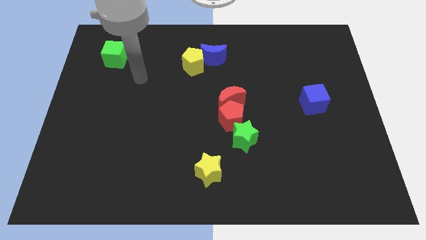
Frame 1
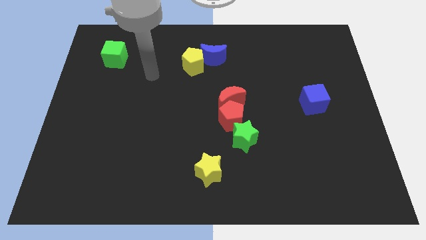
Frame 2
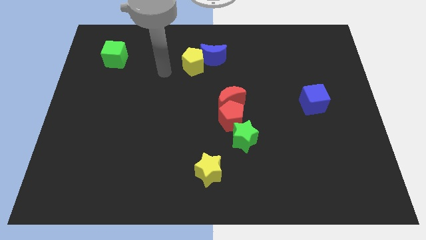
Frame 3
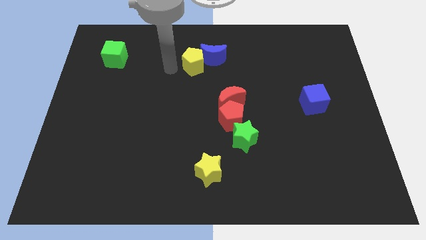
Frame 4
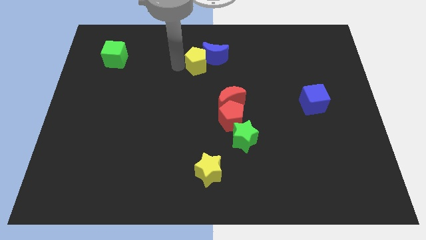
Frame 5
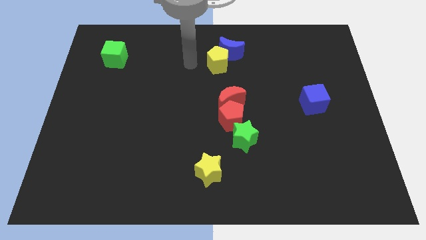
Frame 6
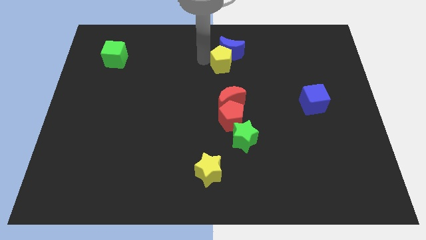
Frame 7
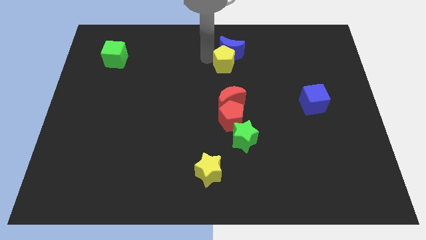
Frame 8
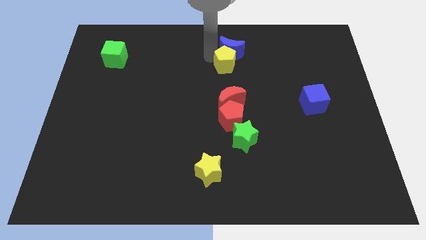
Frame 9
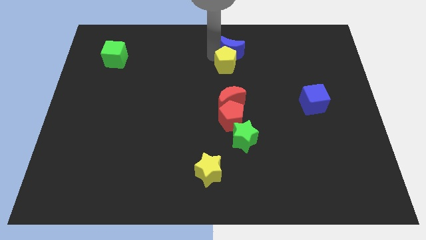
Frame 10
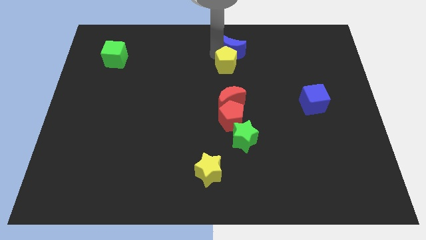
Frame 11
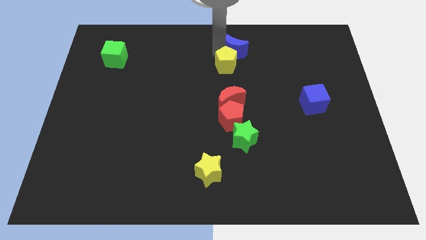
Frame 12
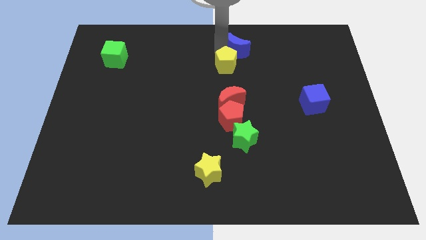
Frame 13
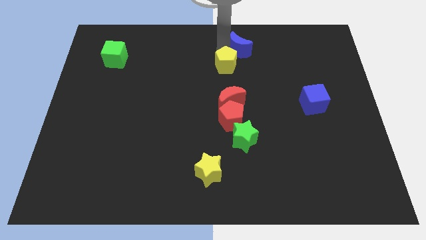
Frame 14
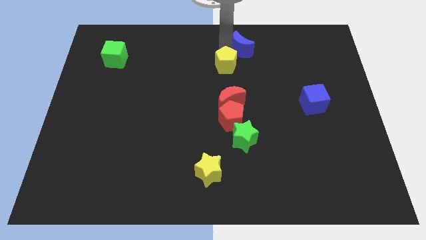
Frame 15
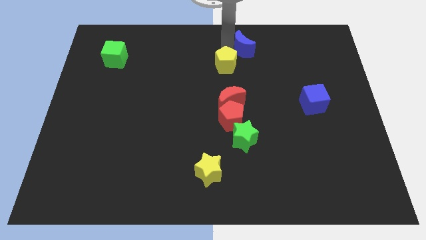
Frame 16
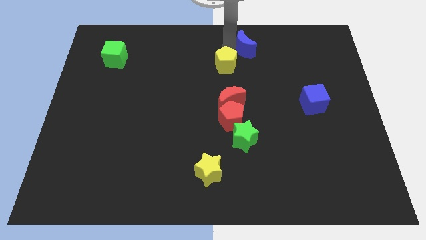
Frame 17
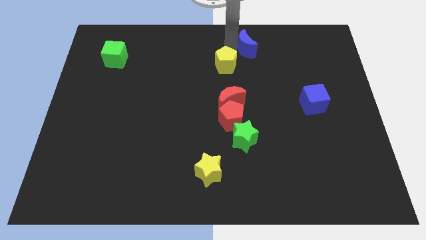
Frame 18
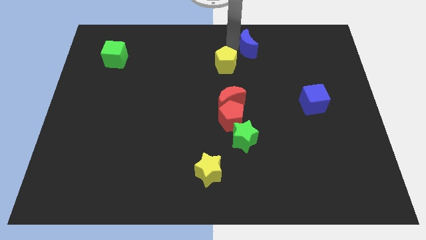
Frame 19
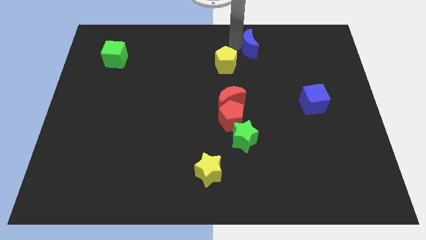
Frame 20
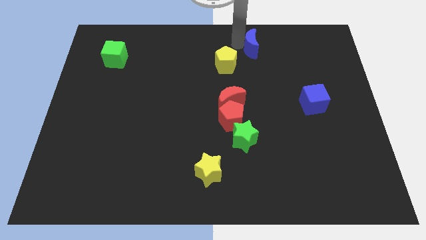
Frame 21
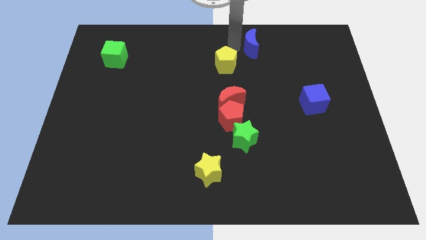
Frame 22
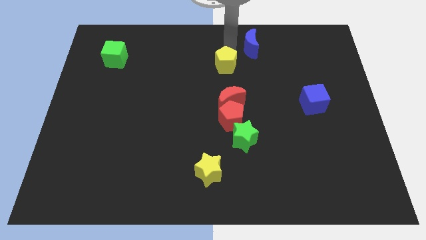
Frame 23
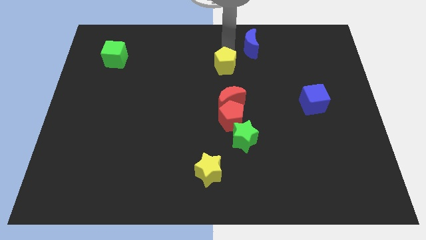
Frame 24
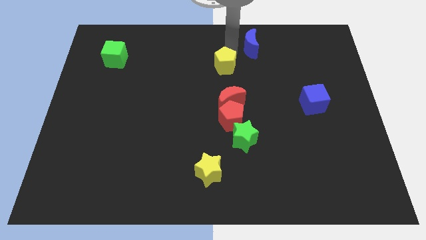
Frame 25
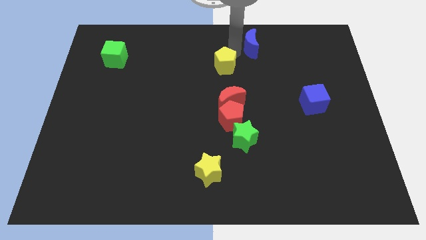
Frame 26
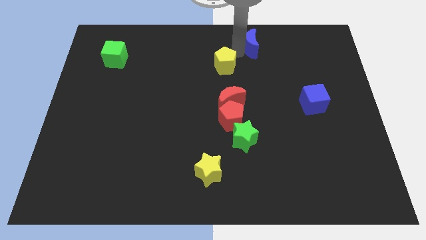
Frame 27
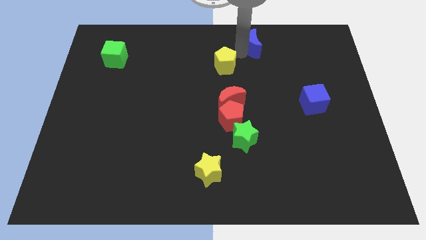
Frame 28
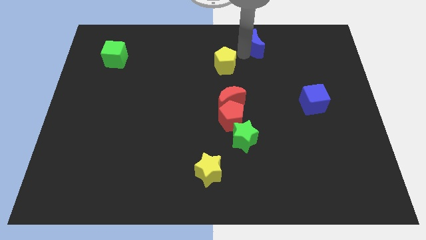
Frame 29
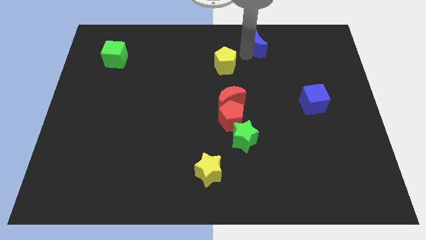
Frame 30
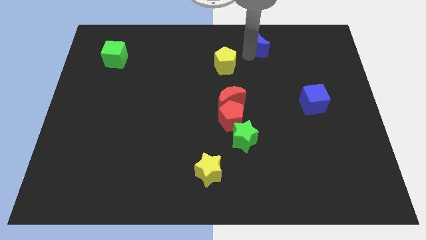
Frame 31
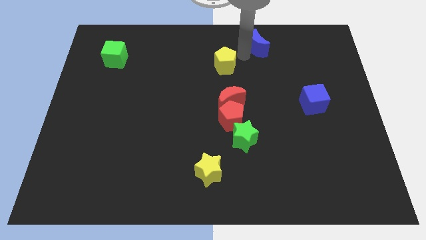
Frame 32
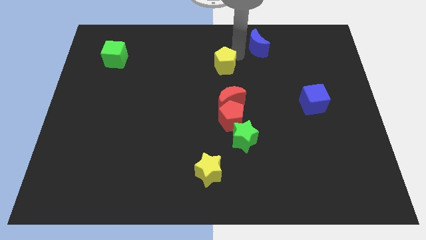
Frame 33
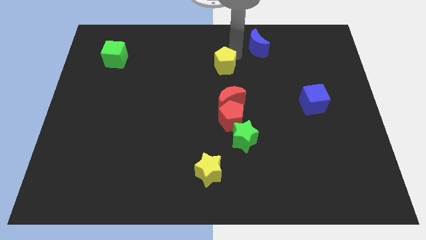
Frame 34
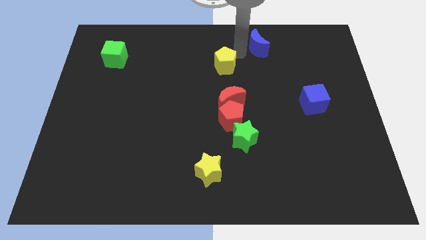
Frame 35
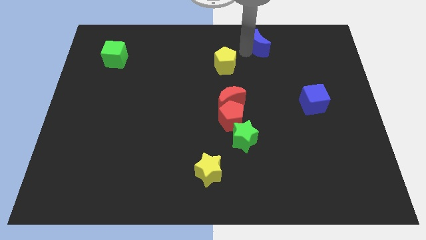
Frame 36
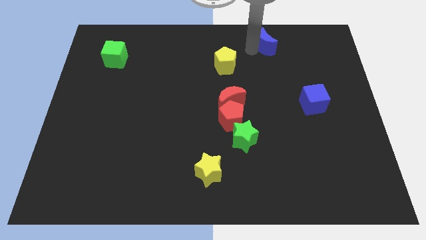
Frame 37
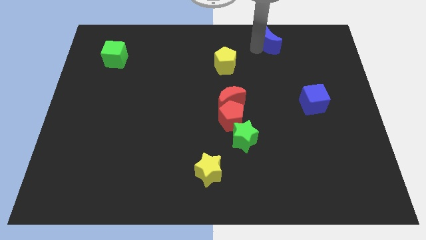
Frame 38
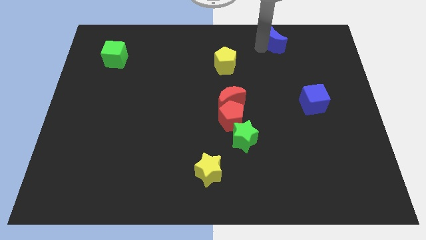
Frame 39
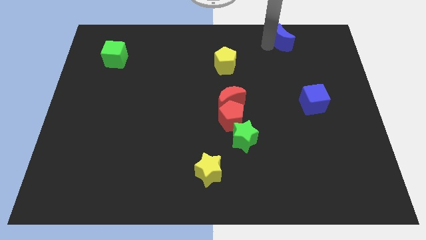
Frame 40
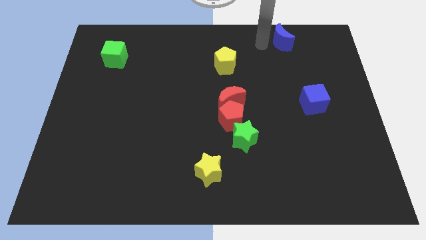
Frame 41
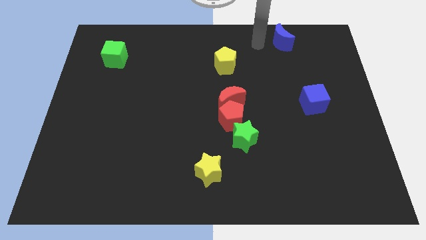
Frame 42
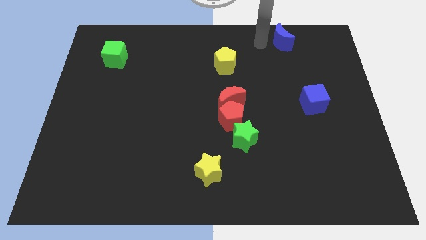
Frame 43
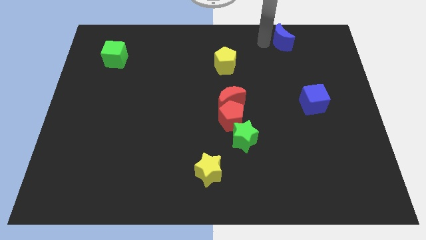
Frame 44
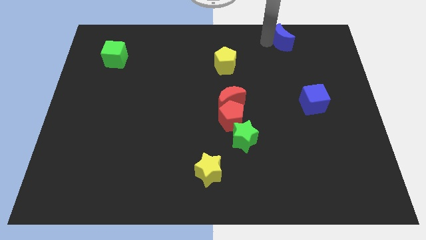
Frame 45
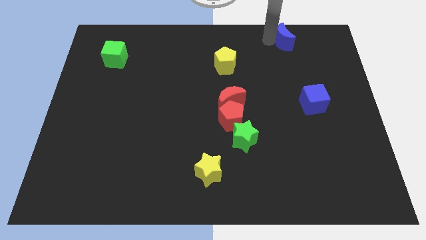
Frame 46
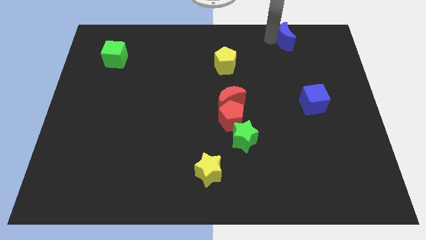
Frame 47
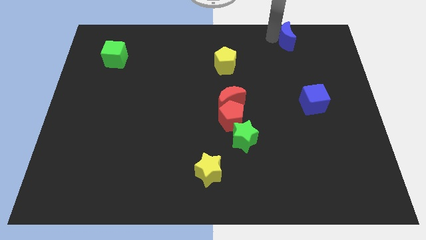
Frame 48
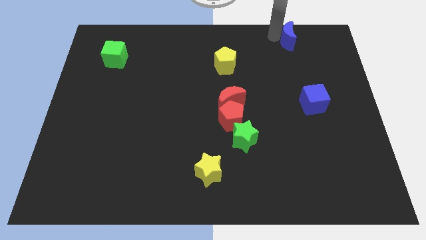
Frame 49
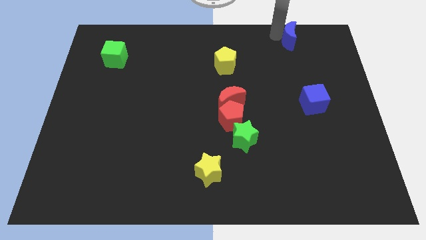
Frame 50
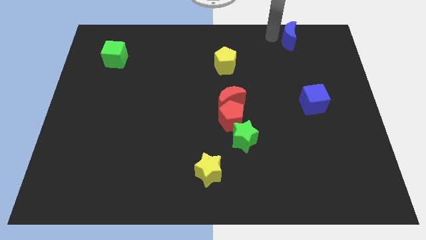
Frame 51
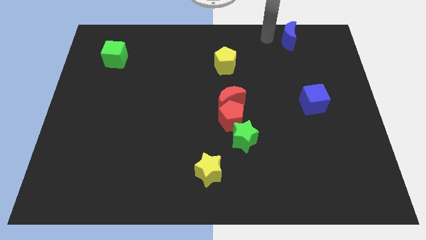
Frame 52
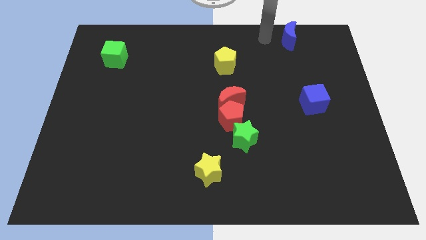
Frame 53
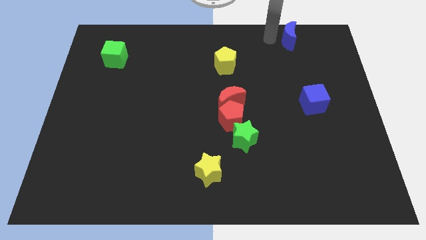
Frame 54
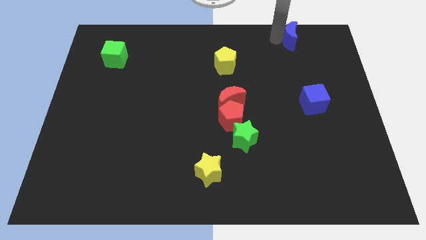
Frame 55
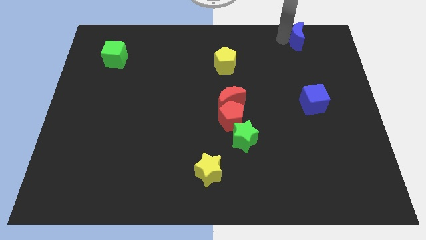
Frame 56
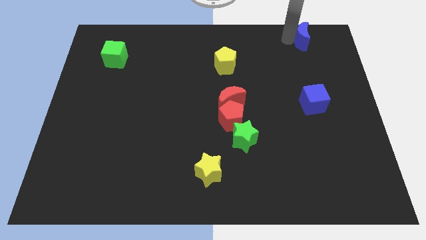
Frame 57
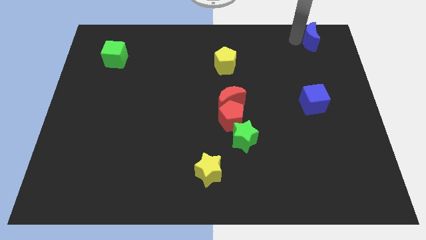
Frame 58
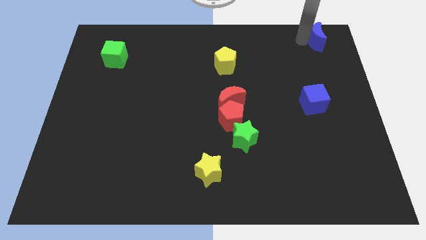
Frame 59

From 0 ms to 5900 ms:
move the blue moon to the top right
